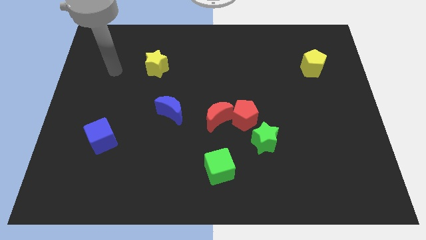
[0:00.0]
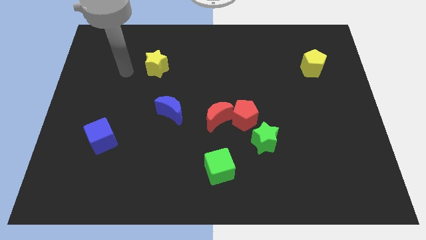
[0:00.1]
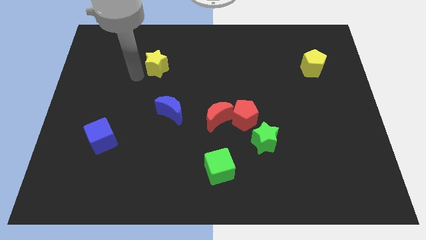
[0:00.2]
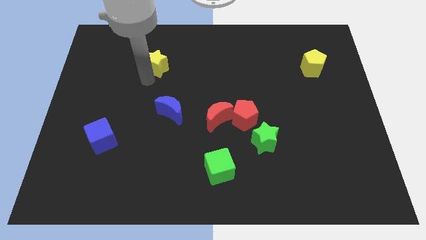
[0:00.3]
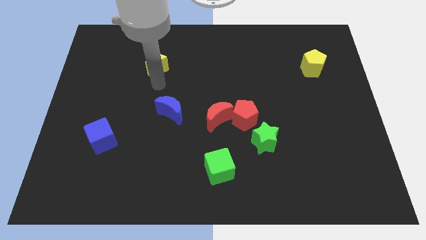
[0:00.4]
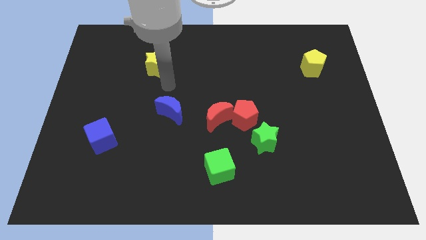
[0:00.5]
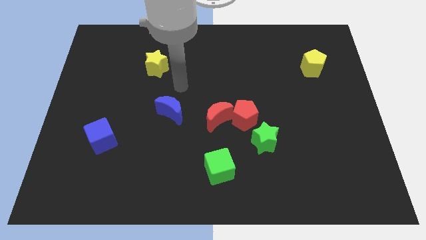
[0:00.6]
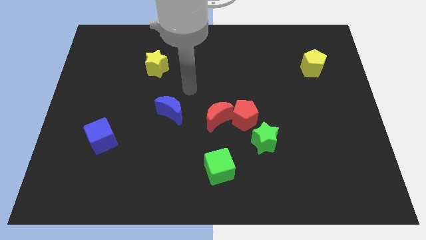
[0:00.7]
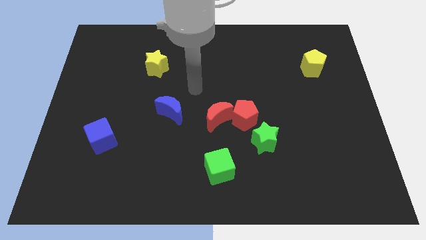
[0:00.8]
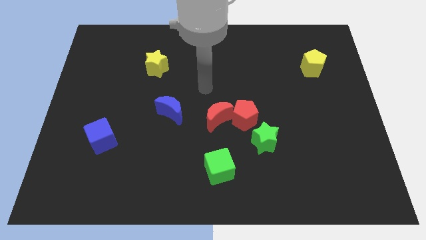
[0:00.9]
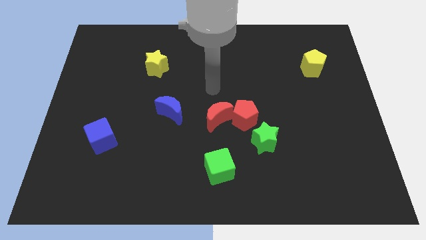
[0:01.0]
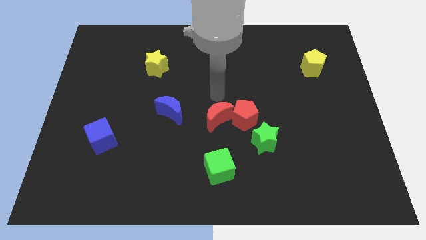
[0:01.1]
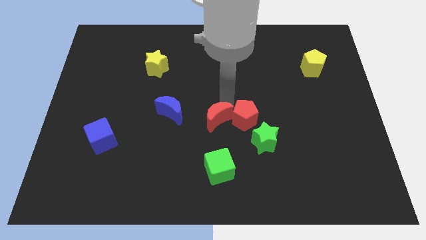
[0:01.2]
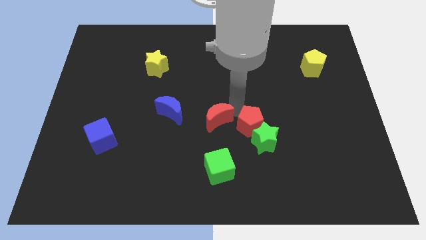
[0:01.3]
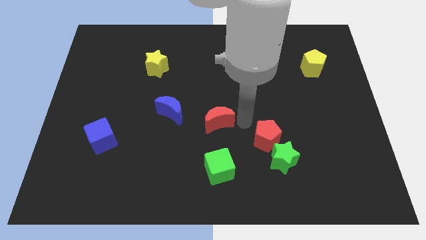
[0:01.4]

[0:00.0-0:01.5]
move the red moon away from the red pentagon

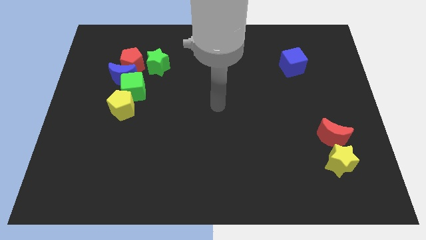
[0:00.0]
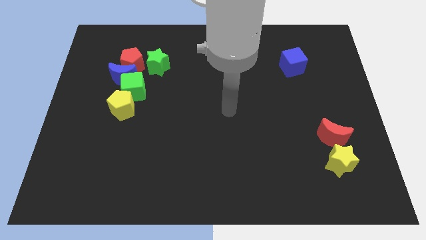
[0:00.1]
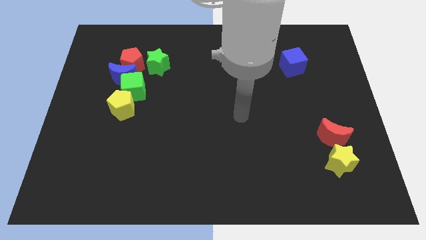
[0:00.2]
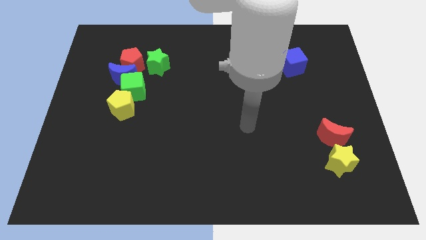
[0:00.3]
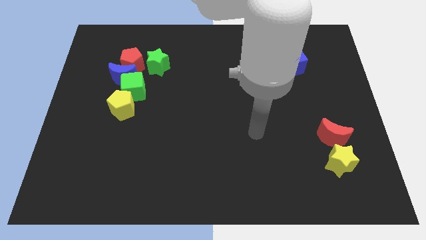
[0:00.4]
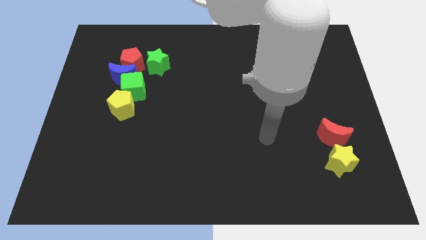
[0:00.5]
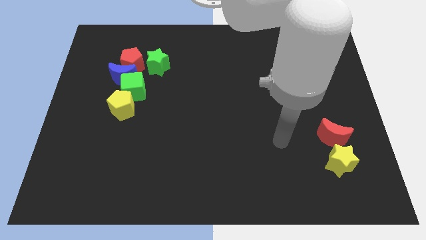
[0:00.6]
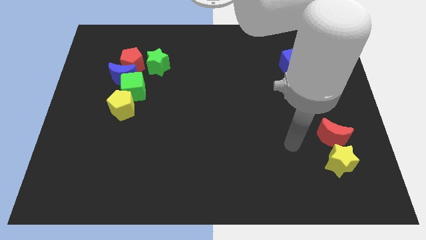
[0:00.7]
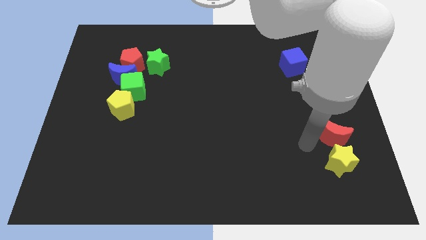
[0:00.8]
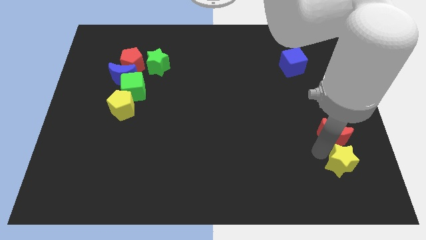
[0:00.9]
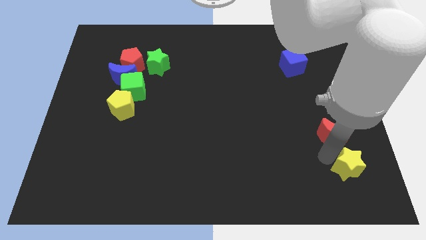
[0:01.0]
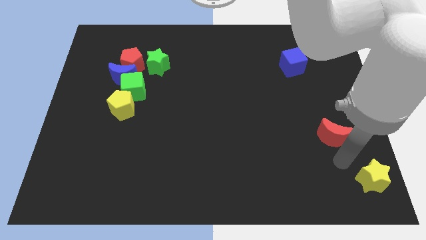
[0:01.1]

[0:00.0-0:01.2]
separate the red moon from the yellow star

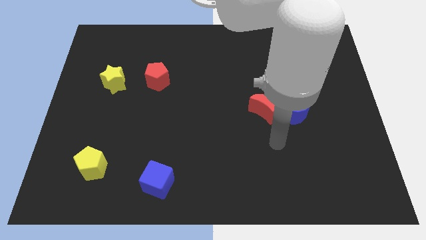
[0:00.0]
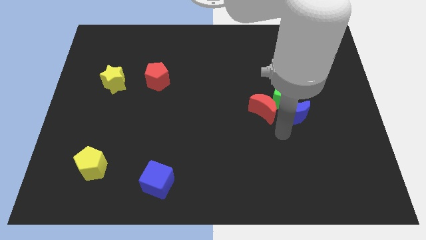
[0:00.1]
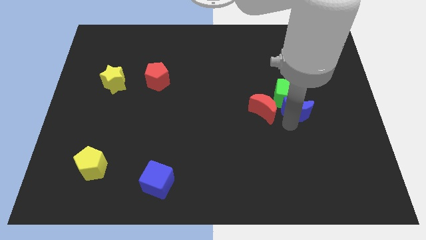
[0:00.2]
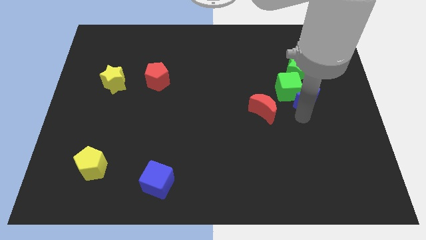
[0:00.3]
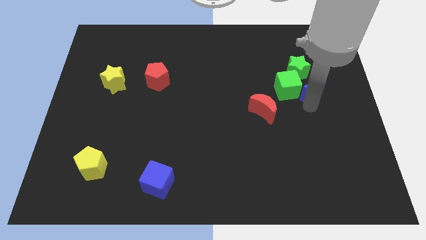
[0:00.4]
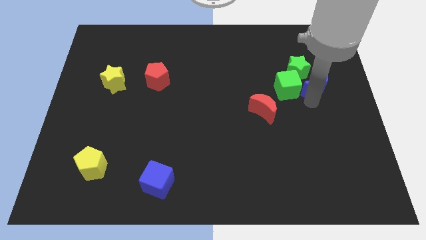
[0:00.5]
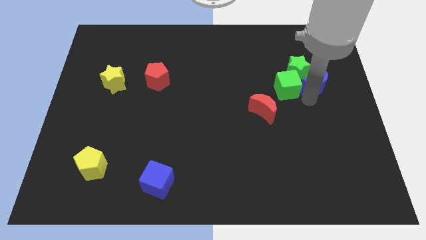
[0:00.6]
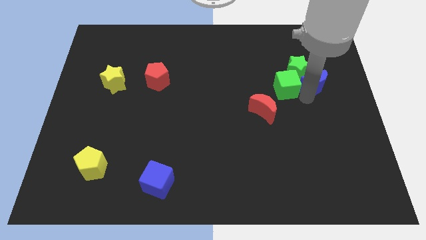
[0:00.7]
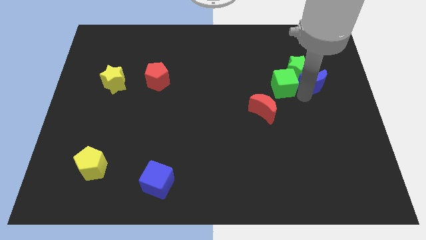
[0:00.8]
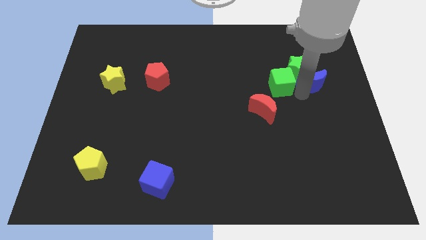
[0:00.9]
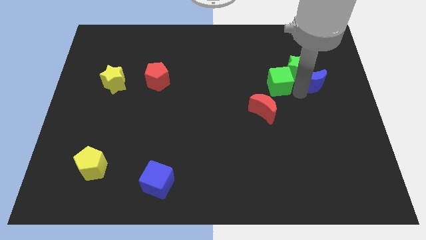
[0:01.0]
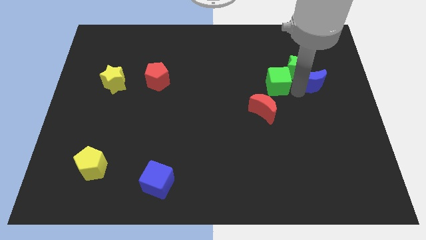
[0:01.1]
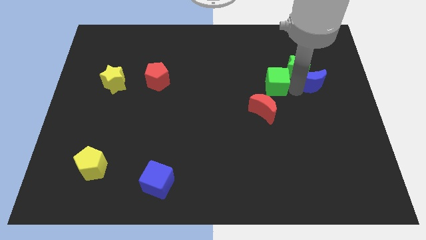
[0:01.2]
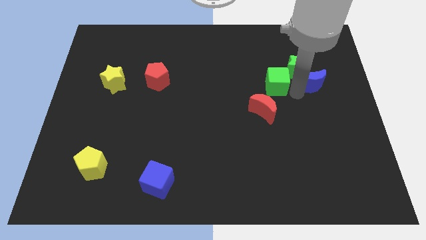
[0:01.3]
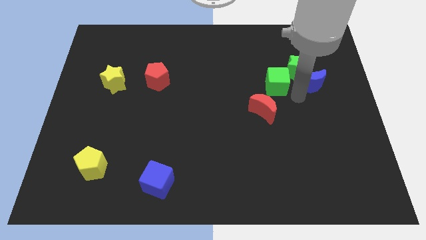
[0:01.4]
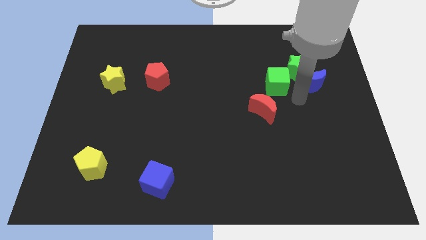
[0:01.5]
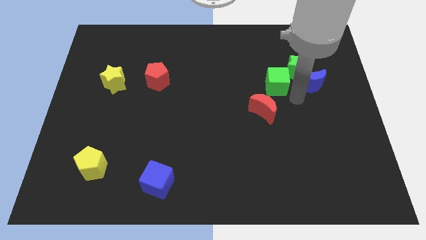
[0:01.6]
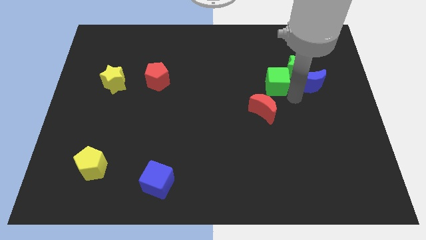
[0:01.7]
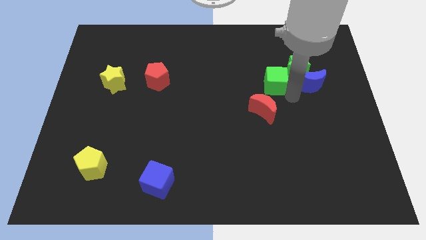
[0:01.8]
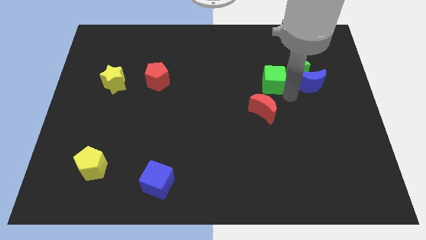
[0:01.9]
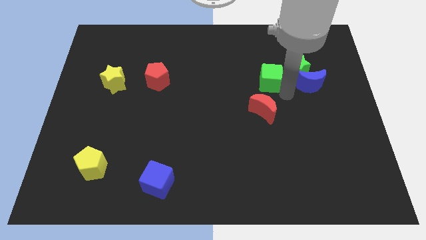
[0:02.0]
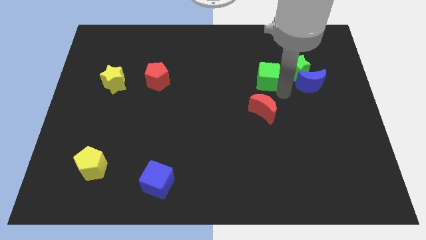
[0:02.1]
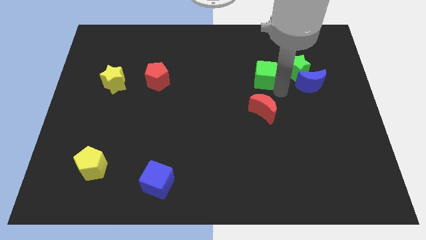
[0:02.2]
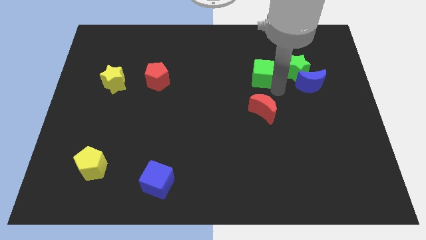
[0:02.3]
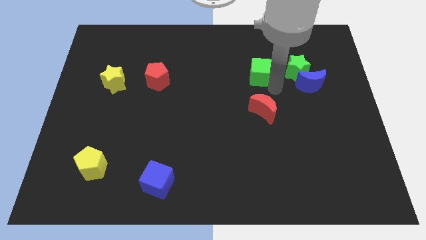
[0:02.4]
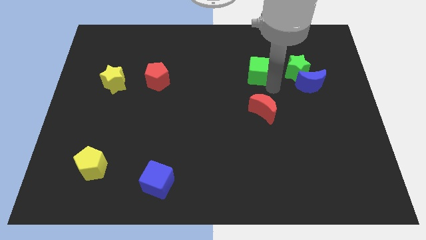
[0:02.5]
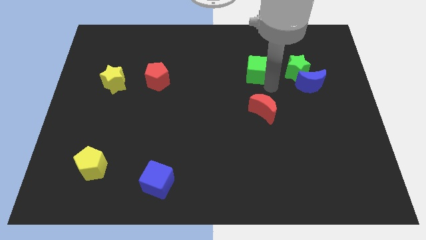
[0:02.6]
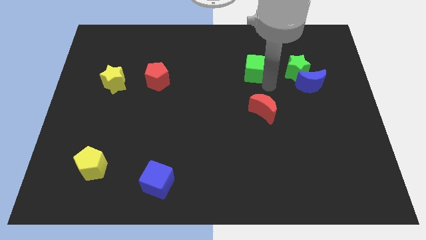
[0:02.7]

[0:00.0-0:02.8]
pull the green cube apart from the clump

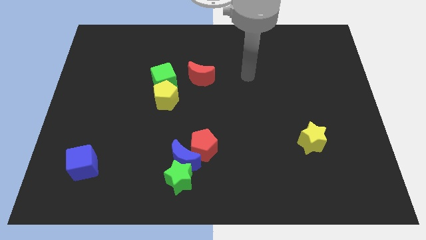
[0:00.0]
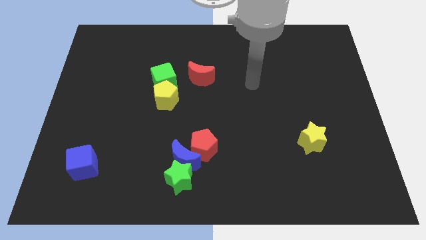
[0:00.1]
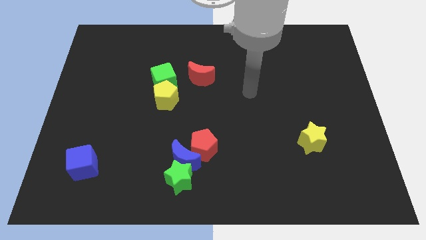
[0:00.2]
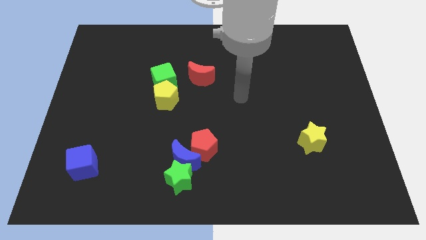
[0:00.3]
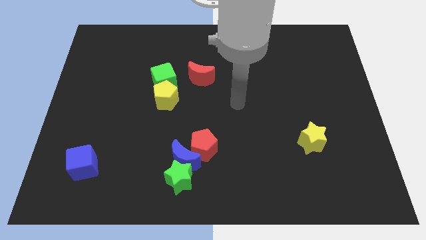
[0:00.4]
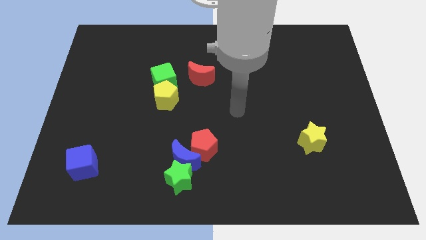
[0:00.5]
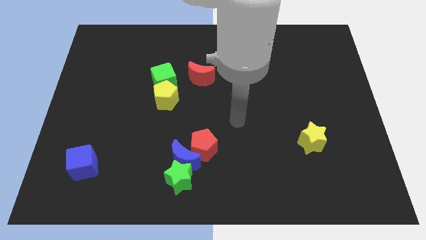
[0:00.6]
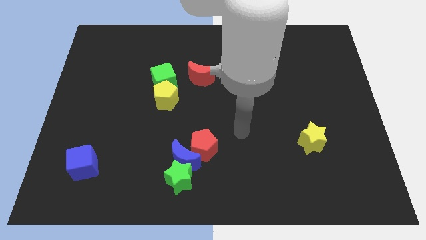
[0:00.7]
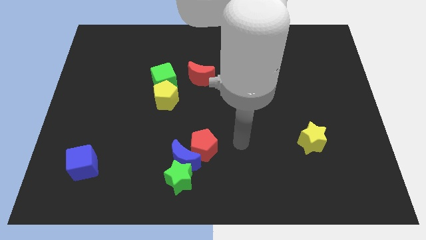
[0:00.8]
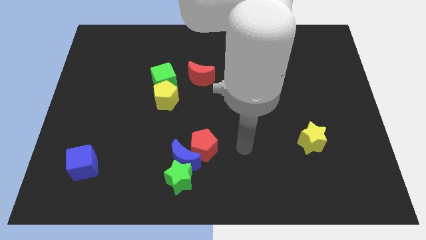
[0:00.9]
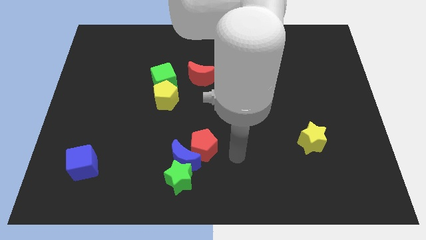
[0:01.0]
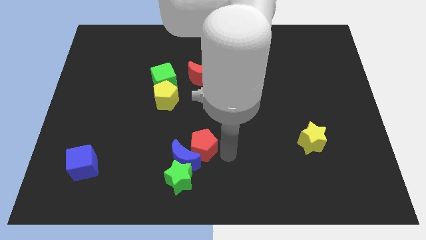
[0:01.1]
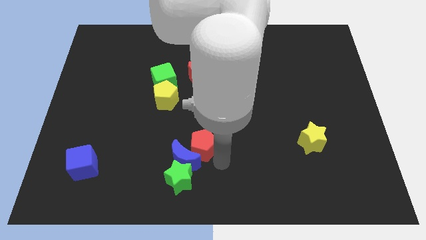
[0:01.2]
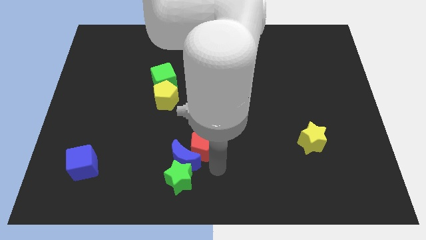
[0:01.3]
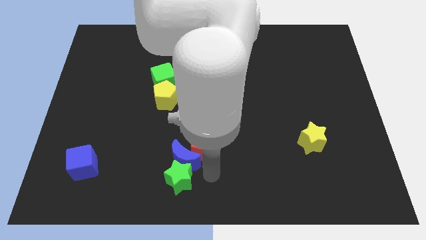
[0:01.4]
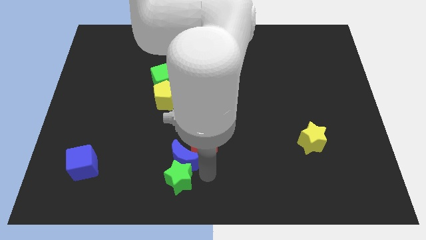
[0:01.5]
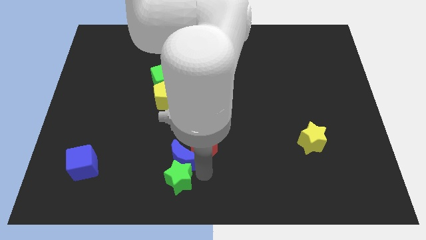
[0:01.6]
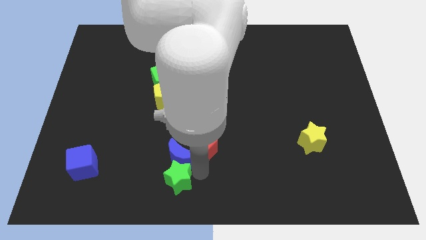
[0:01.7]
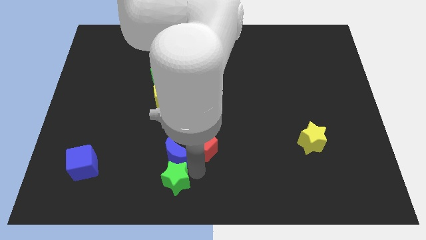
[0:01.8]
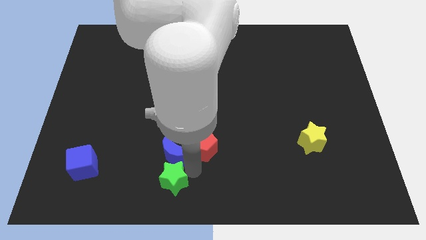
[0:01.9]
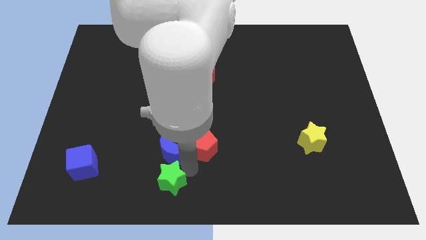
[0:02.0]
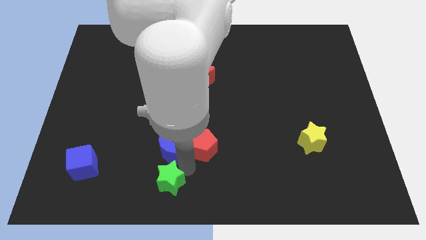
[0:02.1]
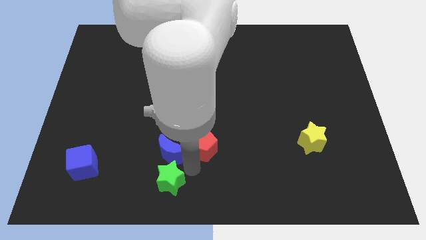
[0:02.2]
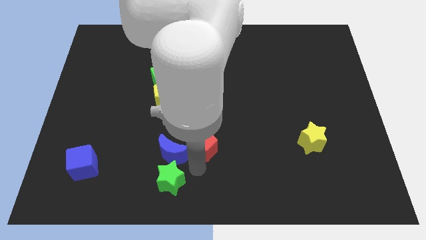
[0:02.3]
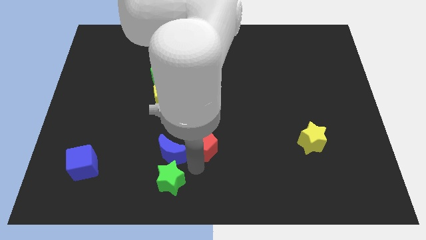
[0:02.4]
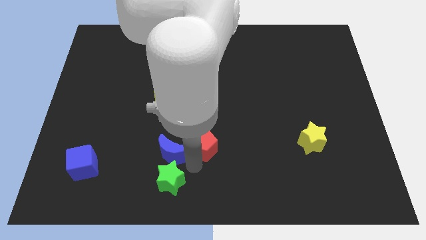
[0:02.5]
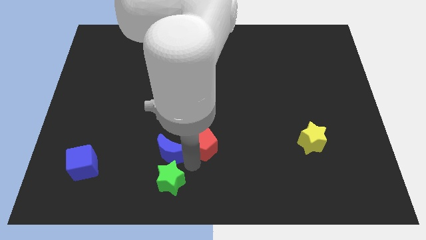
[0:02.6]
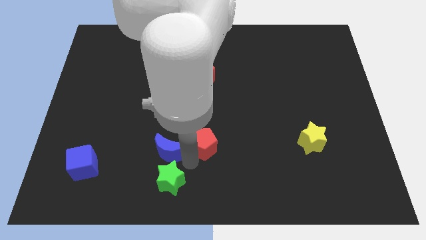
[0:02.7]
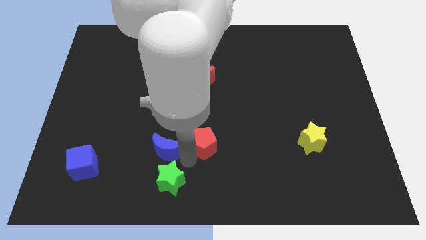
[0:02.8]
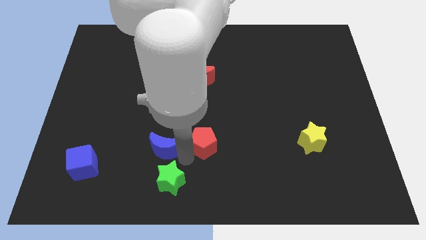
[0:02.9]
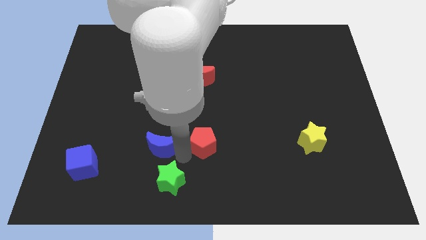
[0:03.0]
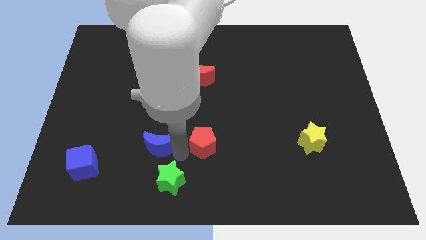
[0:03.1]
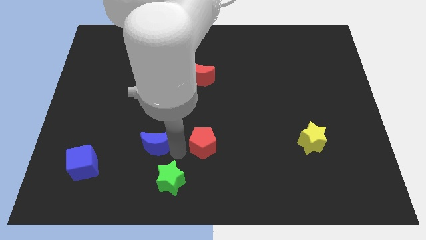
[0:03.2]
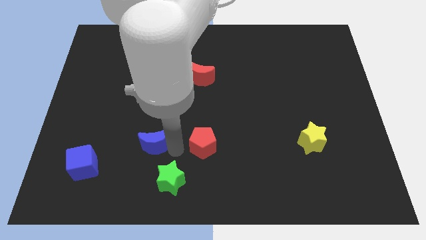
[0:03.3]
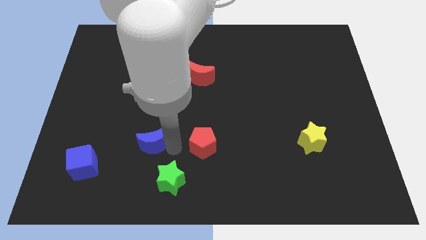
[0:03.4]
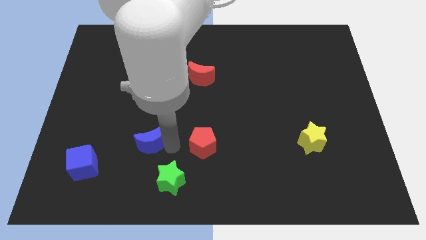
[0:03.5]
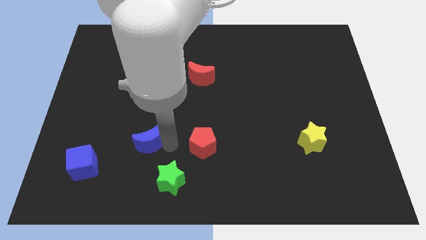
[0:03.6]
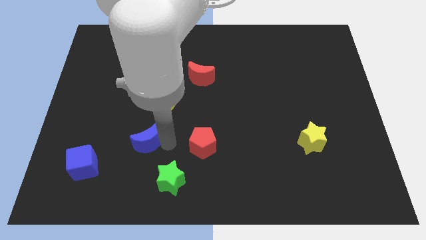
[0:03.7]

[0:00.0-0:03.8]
move the blue moon away from the green star and red pentagon

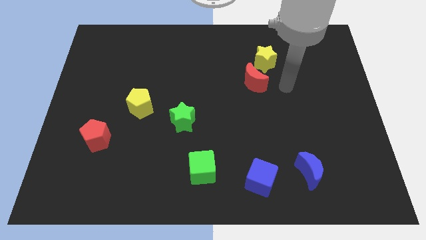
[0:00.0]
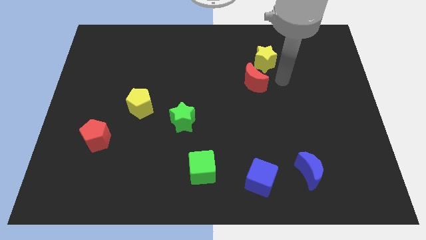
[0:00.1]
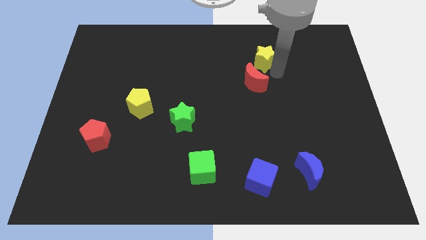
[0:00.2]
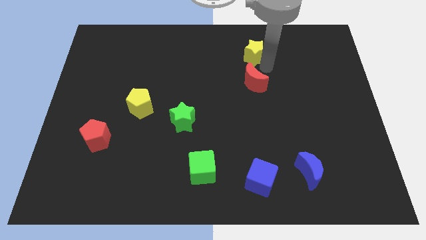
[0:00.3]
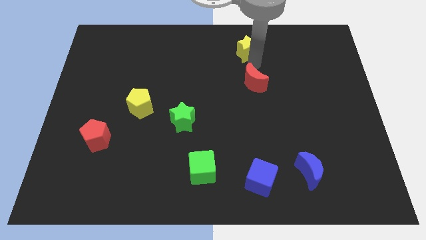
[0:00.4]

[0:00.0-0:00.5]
move the red moon away from the yellow star
